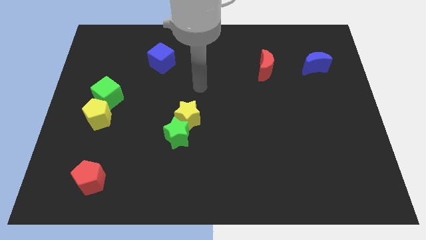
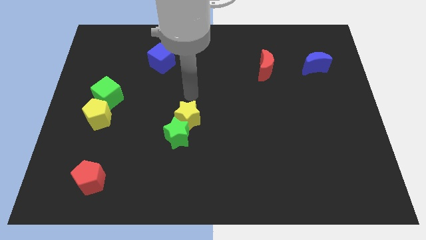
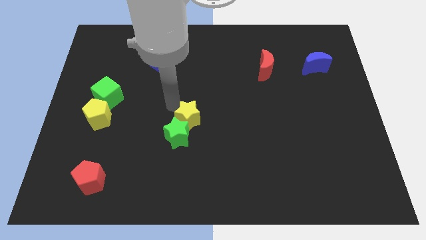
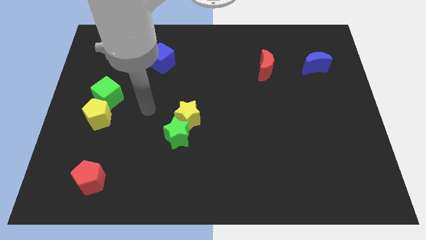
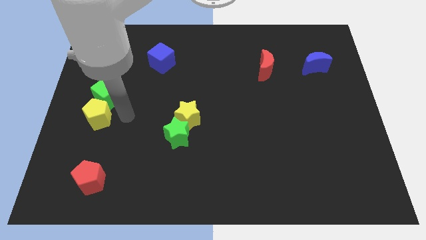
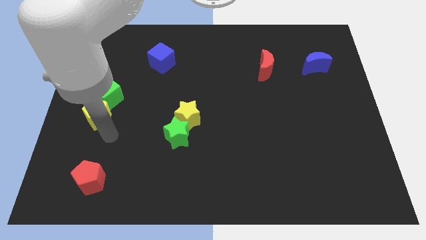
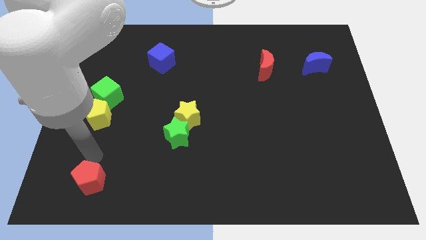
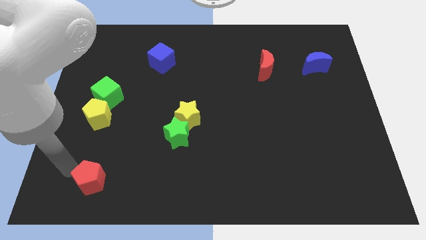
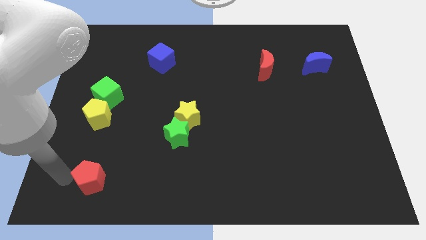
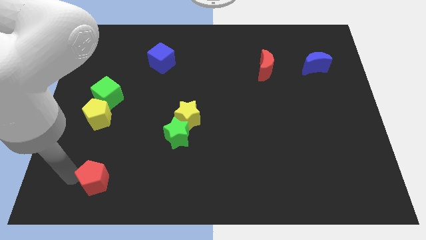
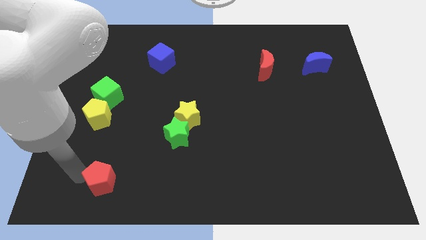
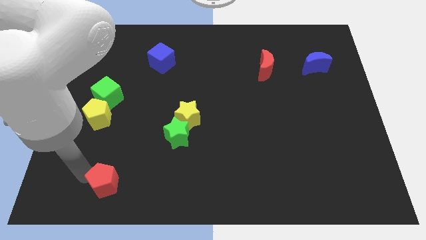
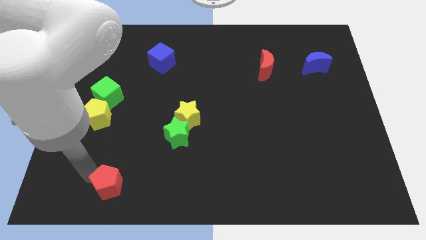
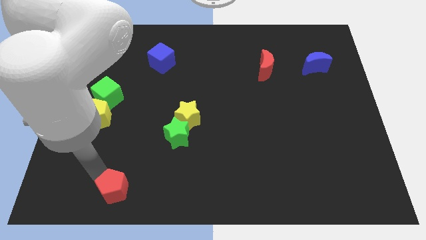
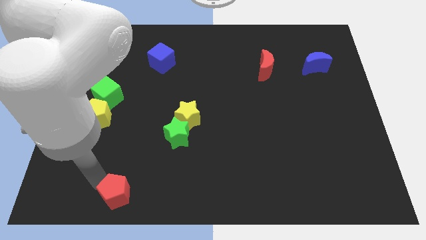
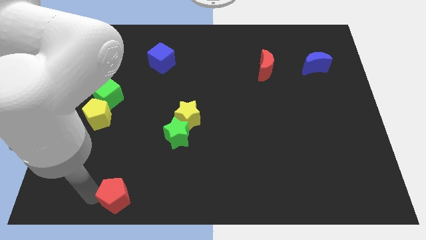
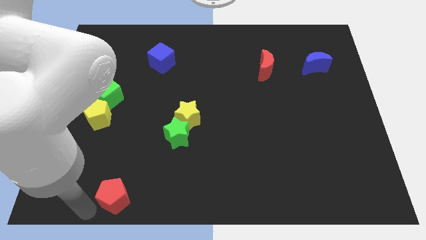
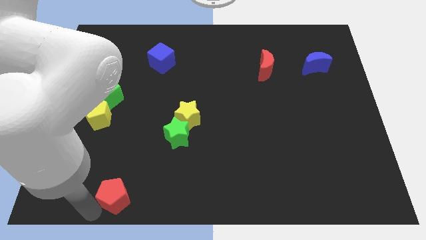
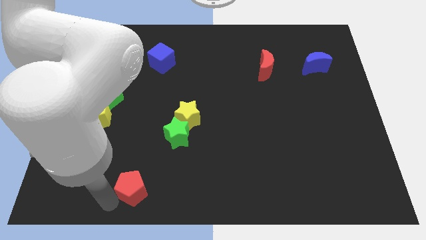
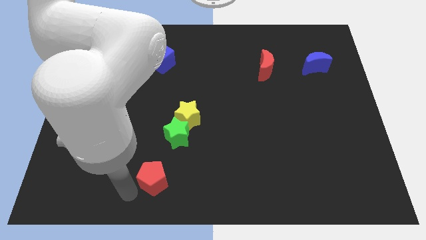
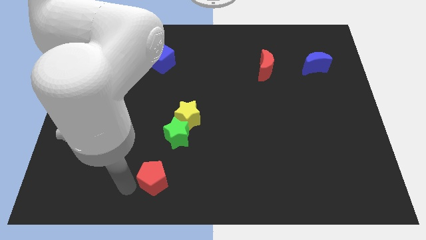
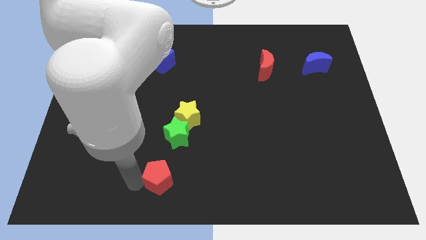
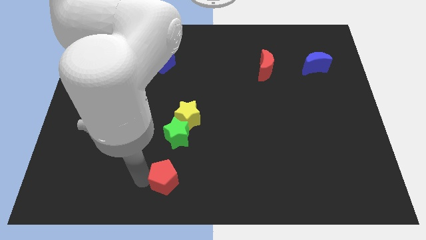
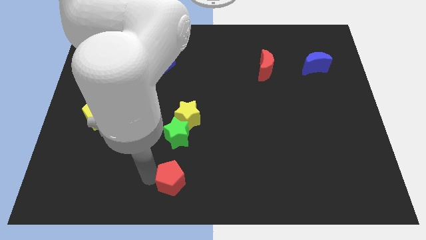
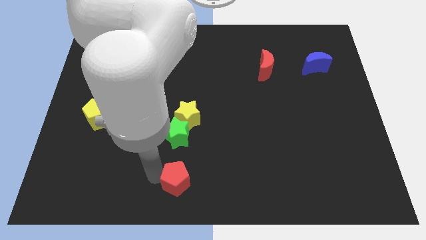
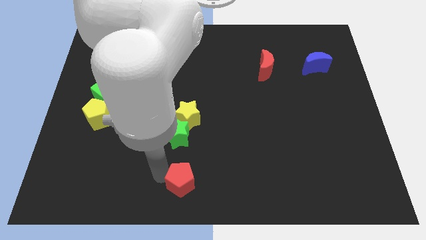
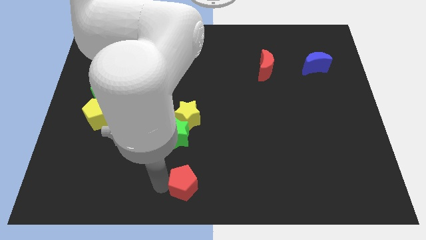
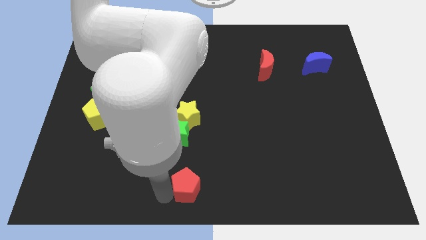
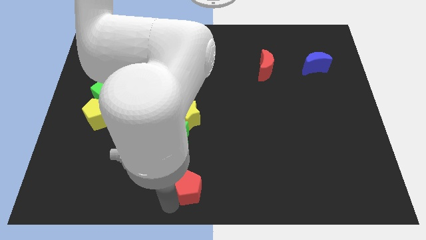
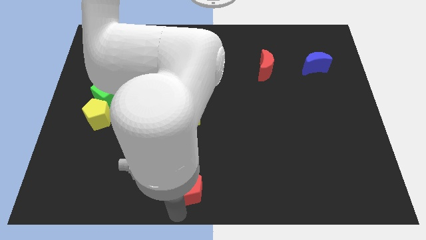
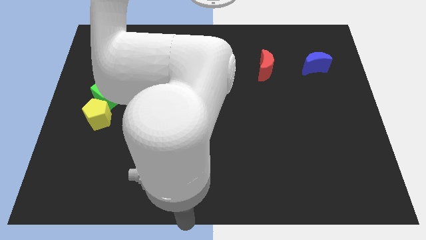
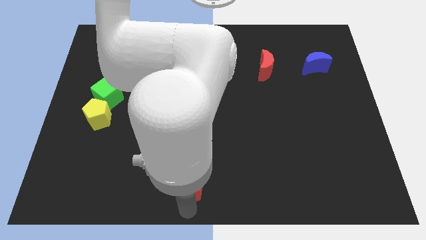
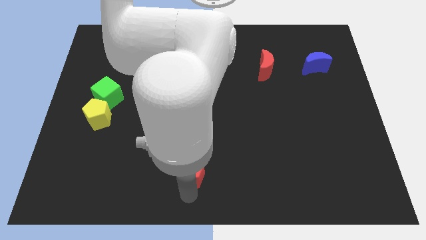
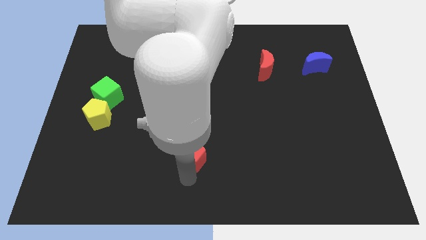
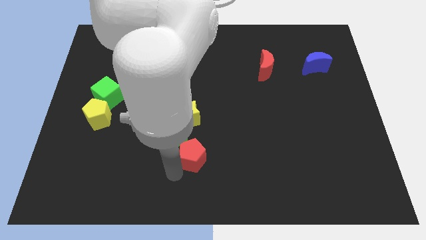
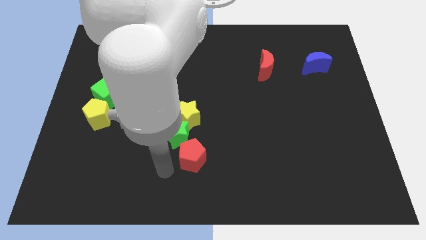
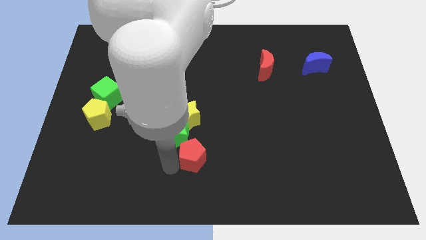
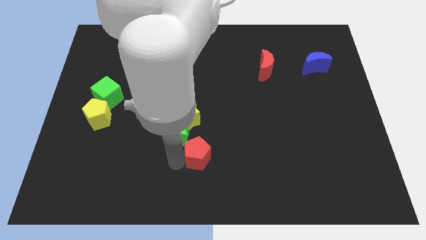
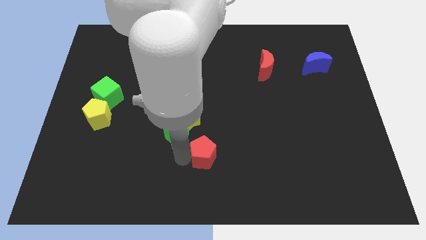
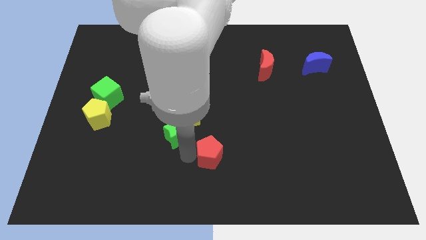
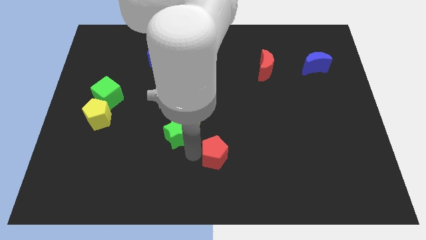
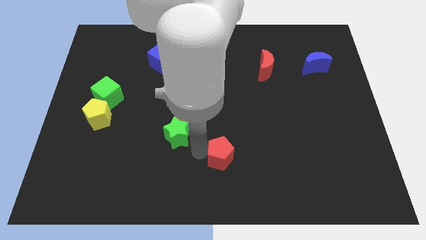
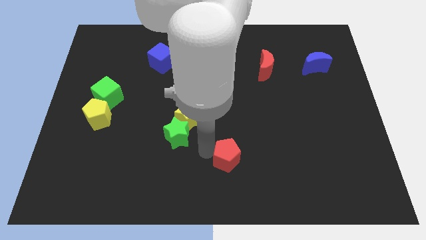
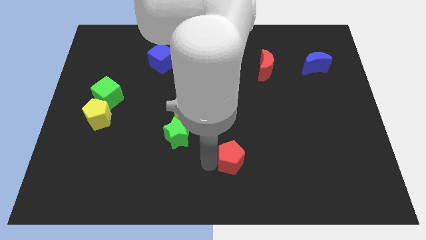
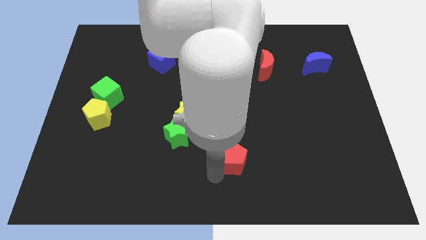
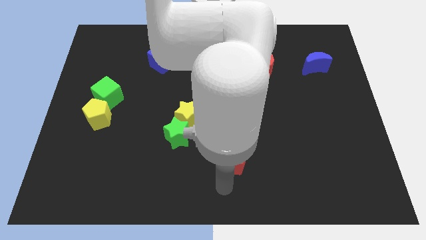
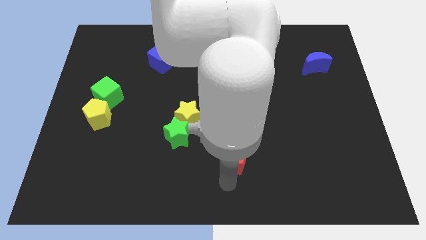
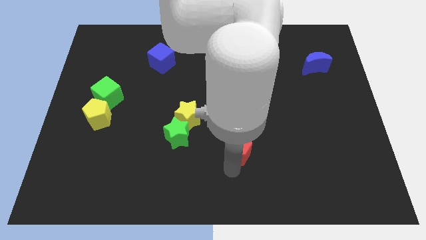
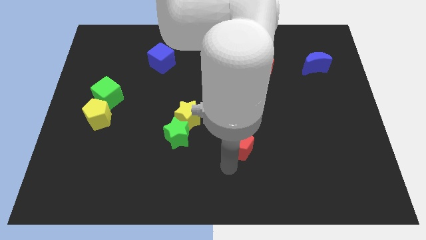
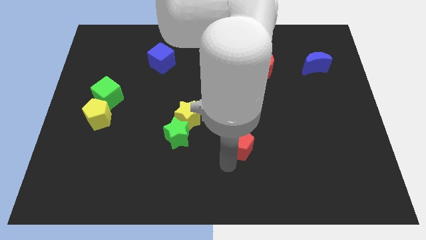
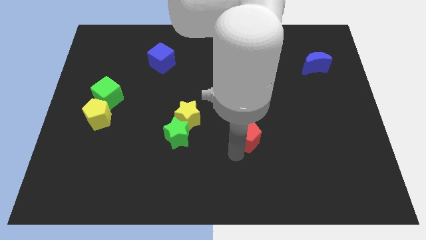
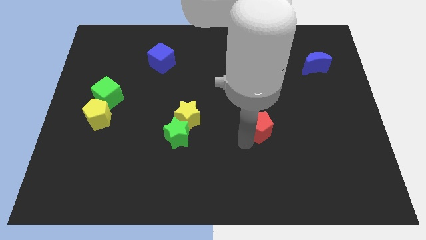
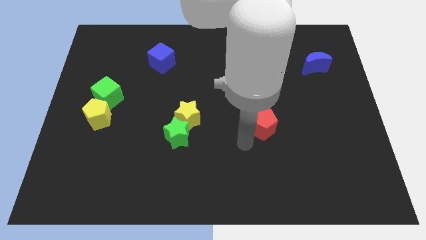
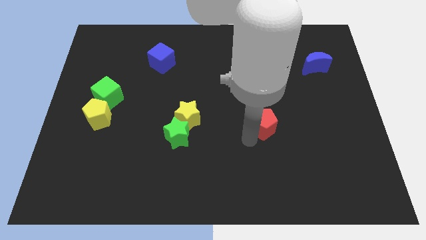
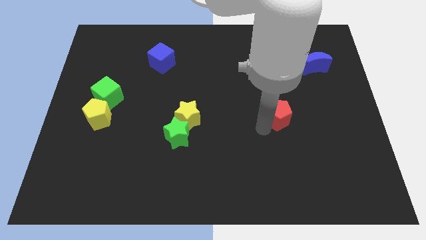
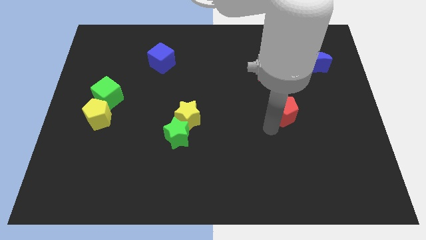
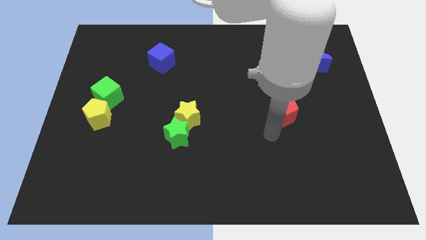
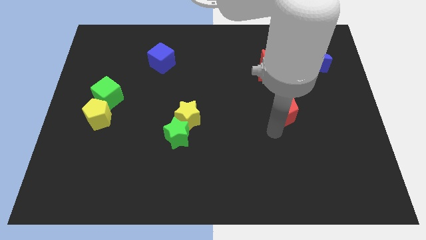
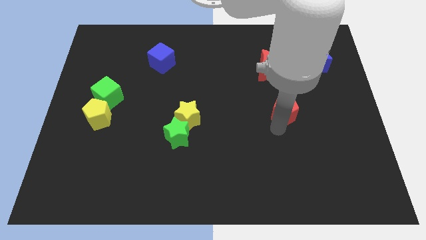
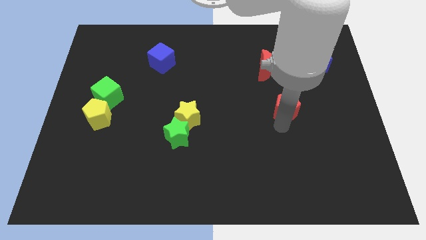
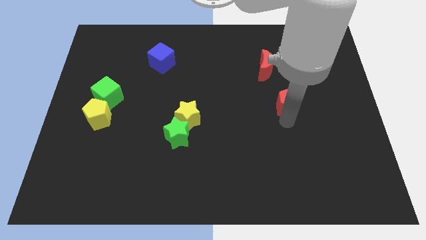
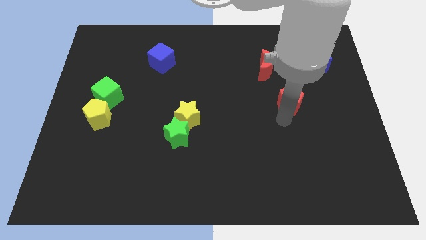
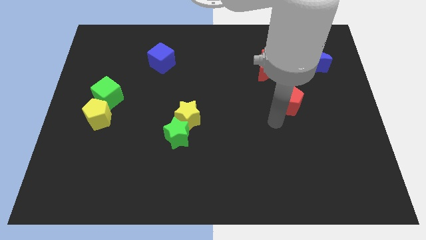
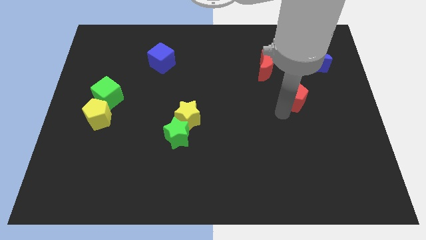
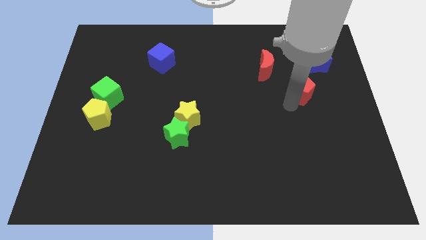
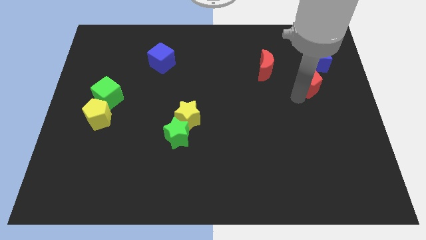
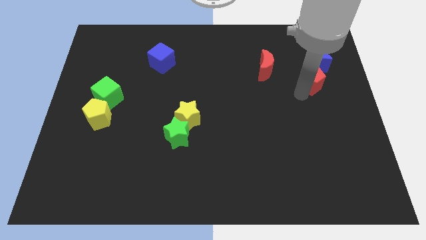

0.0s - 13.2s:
push the red pentagon towards the blue moon

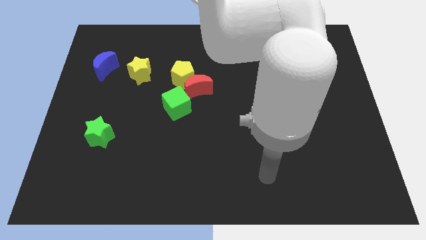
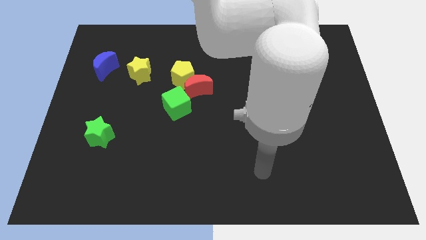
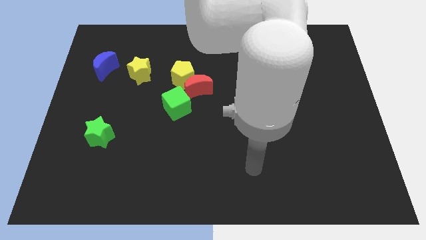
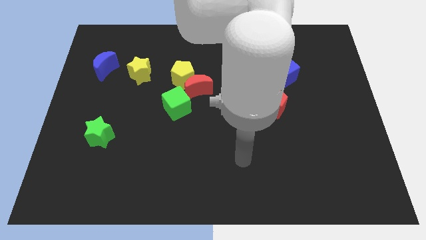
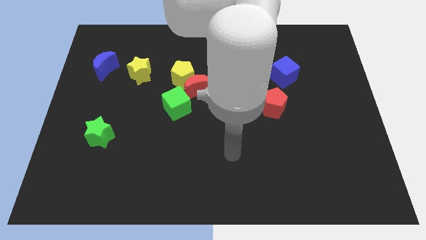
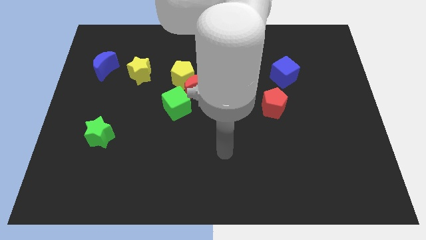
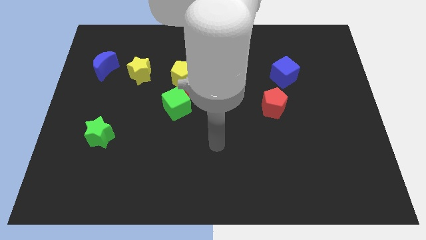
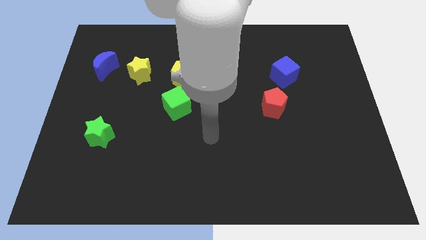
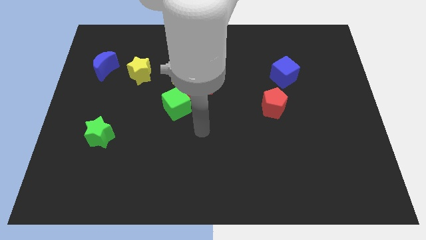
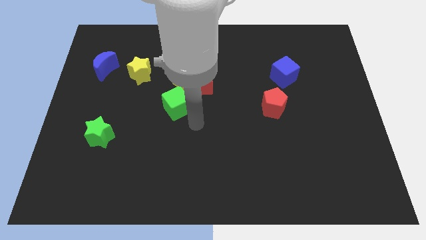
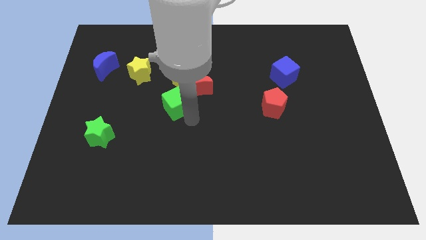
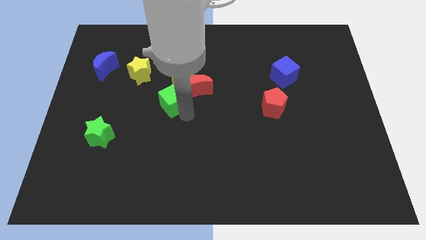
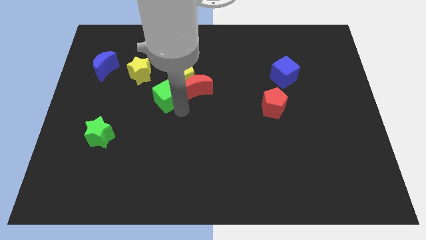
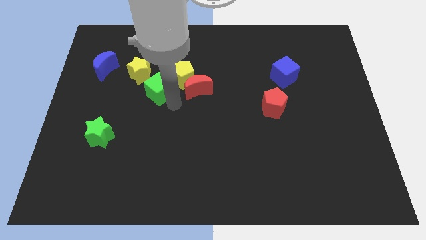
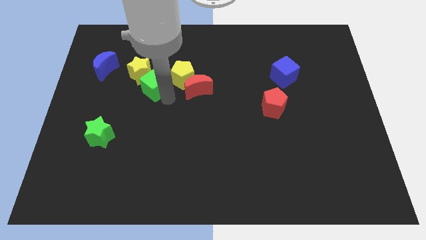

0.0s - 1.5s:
put the green cube next to the yellow star
